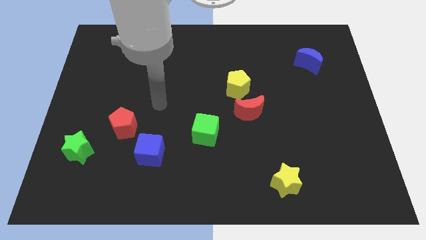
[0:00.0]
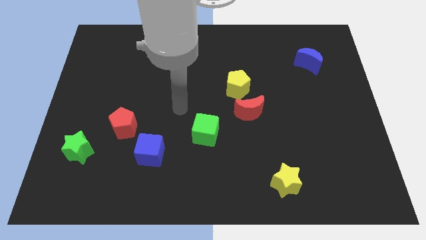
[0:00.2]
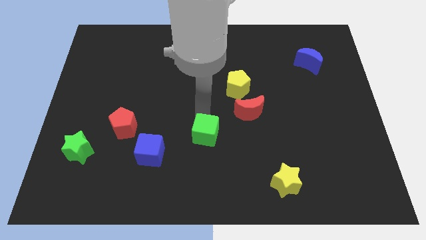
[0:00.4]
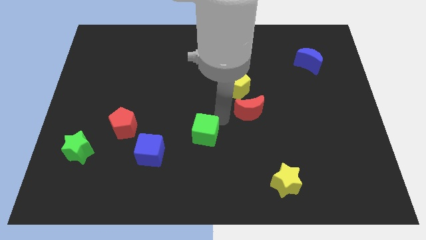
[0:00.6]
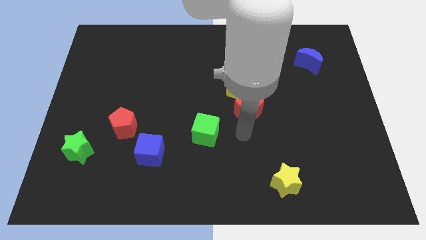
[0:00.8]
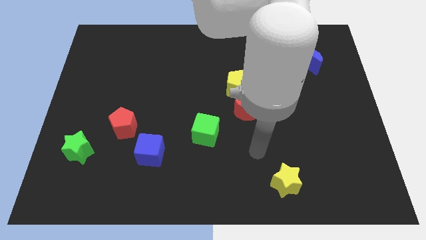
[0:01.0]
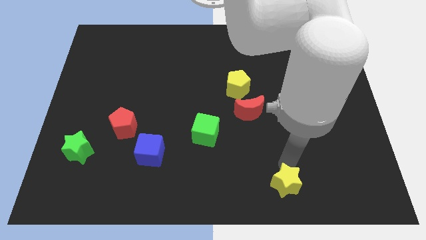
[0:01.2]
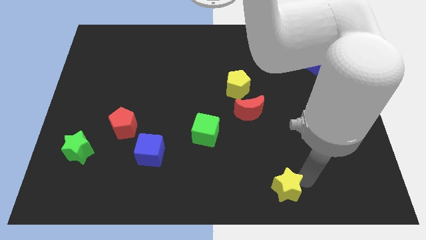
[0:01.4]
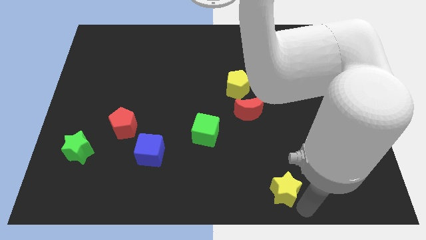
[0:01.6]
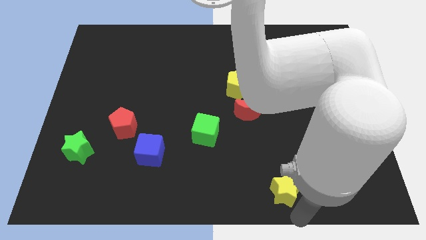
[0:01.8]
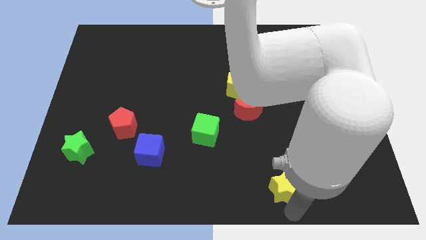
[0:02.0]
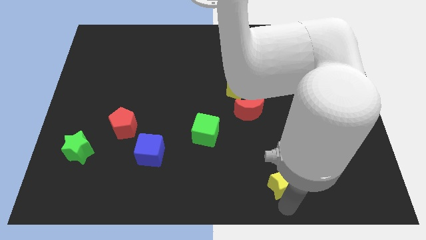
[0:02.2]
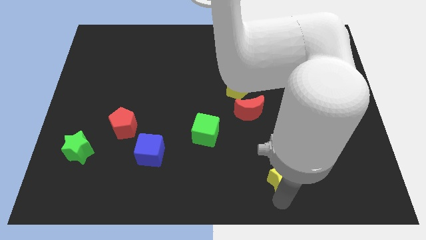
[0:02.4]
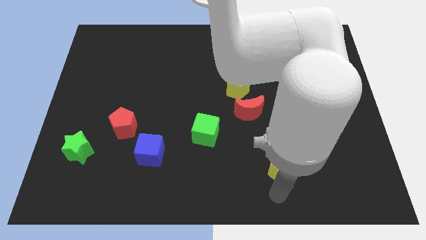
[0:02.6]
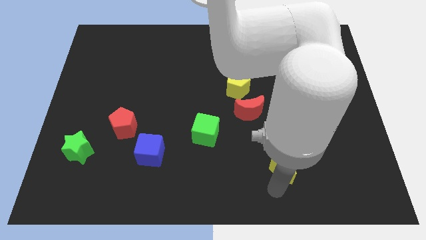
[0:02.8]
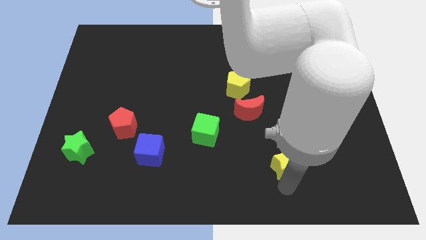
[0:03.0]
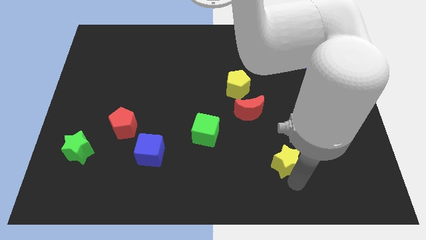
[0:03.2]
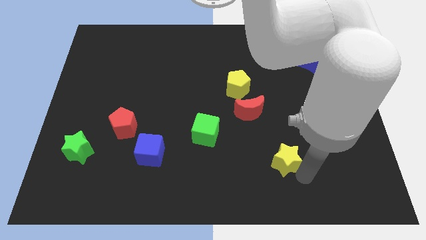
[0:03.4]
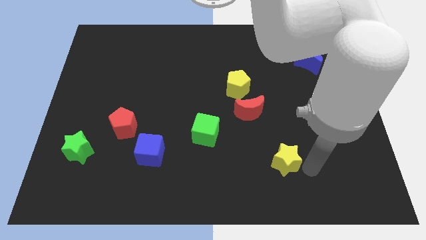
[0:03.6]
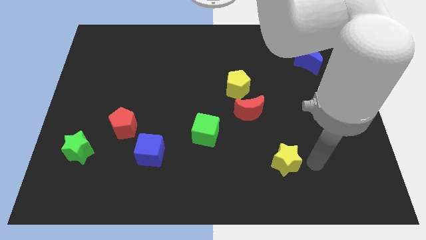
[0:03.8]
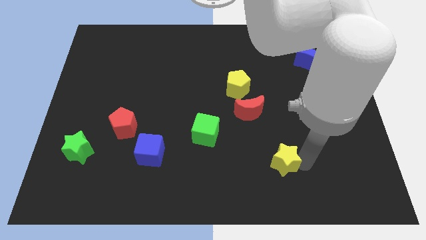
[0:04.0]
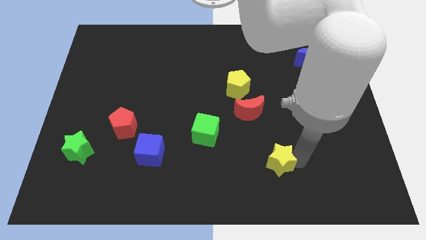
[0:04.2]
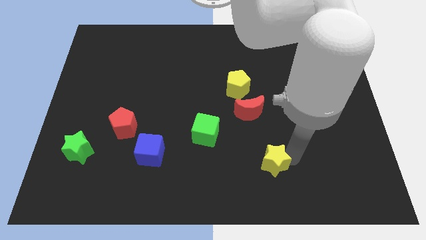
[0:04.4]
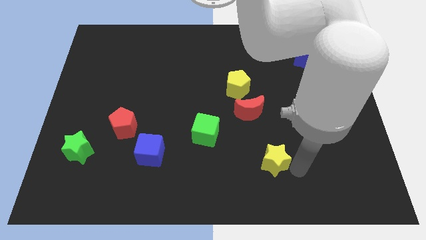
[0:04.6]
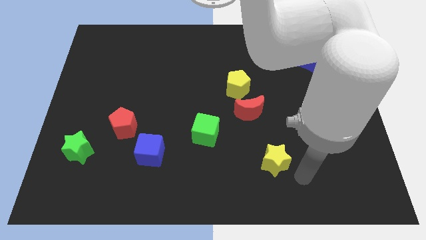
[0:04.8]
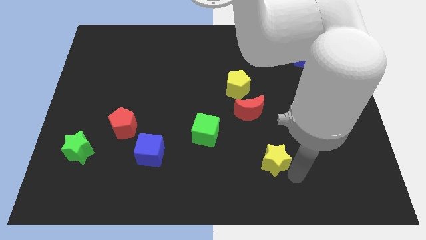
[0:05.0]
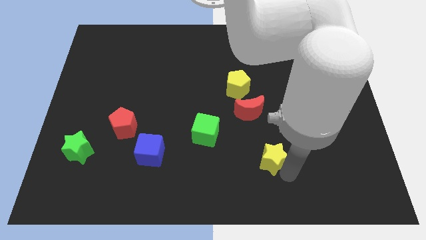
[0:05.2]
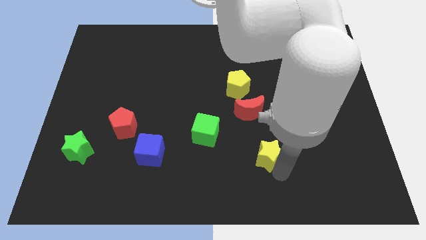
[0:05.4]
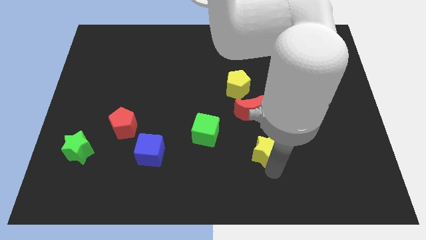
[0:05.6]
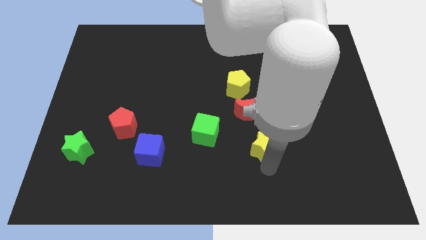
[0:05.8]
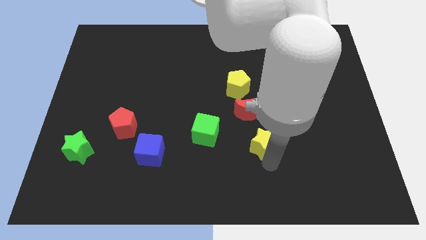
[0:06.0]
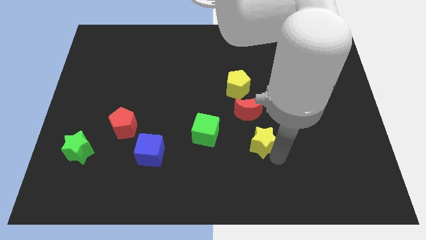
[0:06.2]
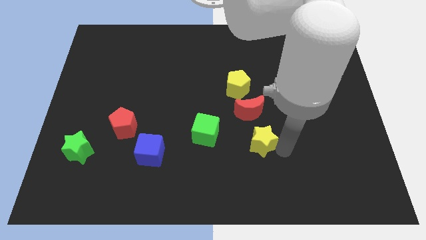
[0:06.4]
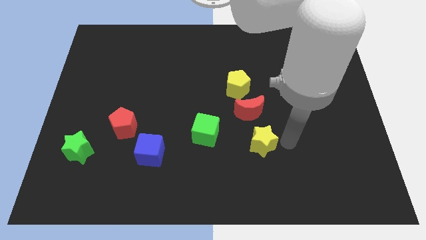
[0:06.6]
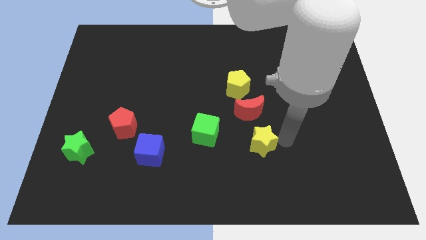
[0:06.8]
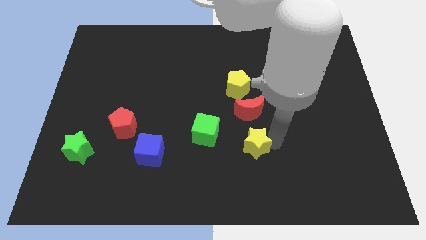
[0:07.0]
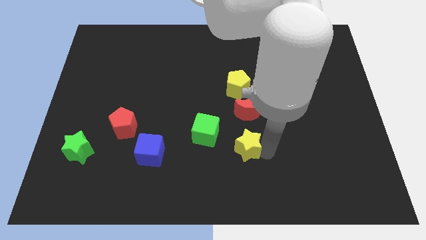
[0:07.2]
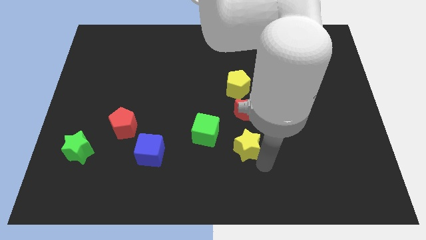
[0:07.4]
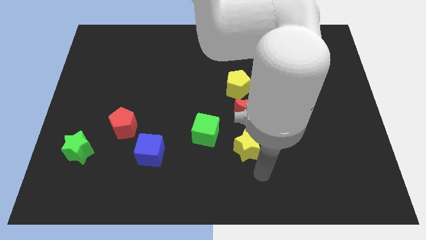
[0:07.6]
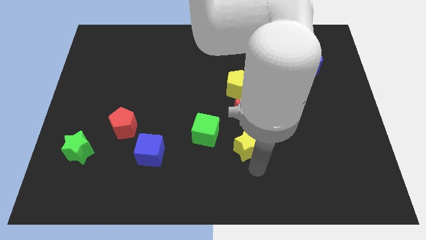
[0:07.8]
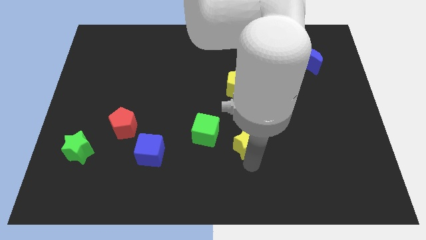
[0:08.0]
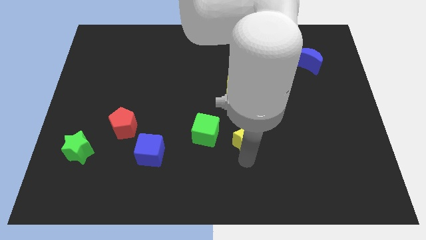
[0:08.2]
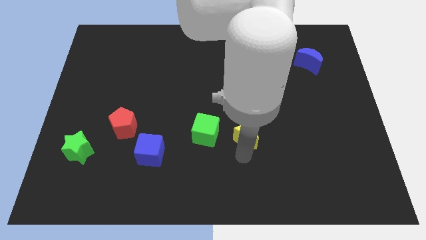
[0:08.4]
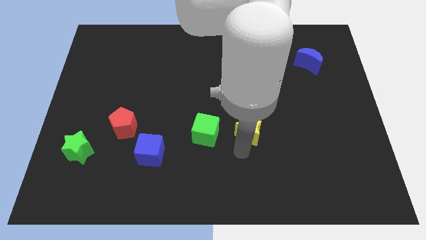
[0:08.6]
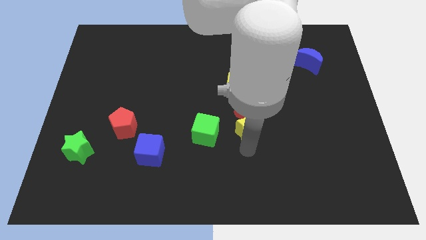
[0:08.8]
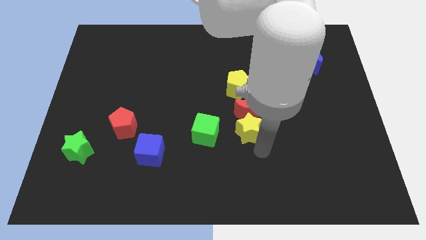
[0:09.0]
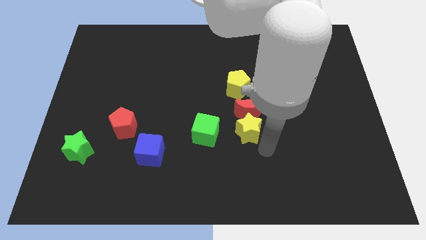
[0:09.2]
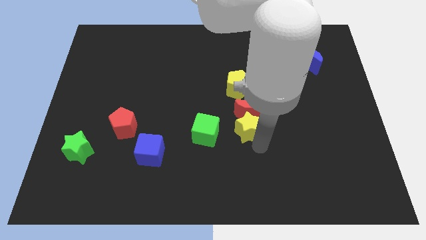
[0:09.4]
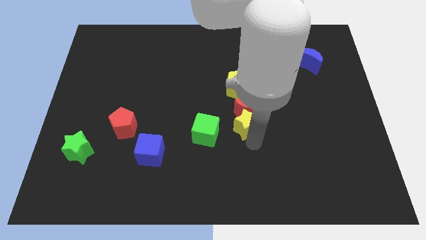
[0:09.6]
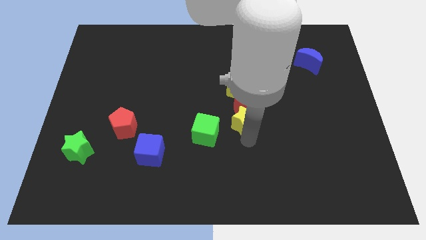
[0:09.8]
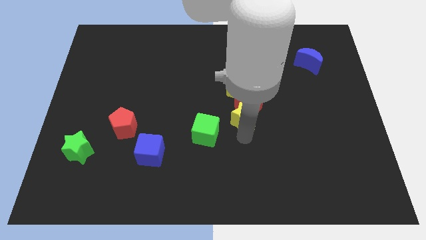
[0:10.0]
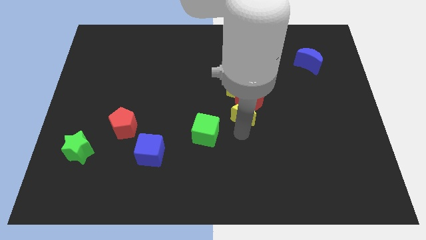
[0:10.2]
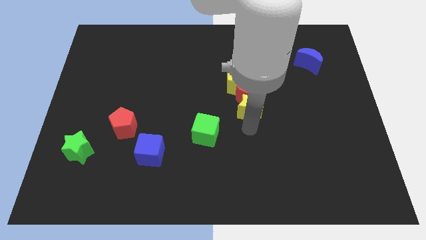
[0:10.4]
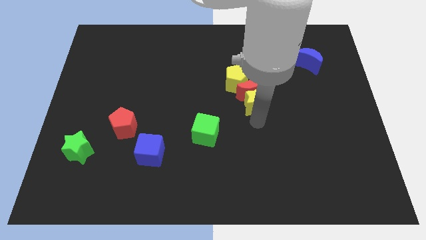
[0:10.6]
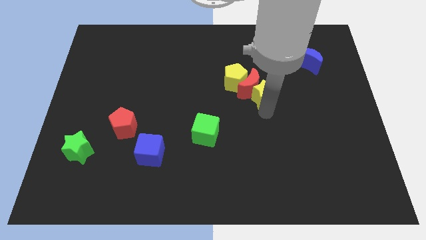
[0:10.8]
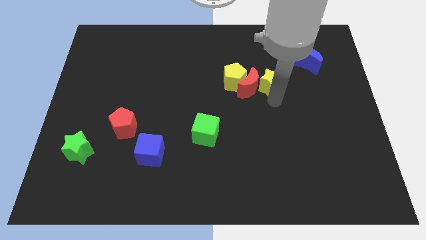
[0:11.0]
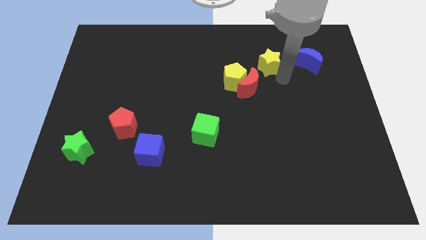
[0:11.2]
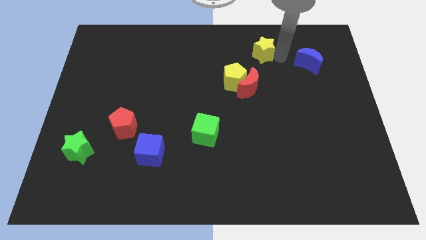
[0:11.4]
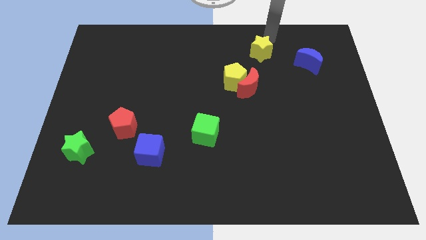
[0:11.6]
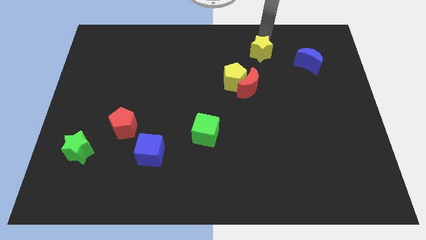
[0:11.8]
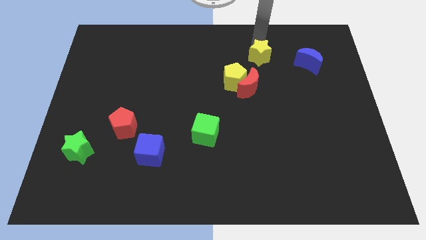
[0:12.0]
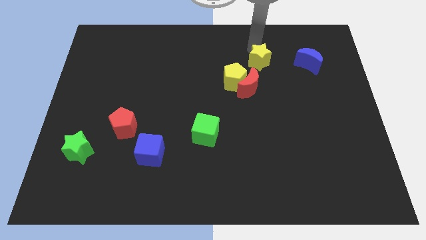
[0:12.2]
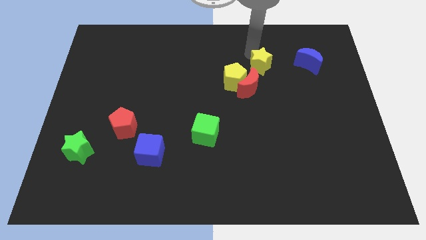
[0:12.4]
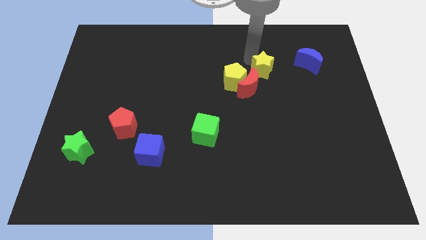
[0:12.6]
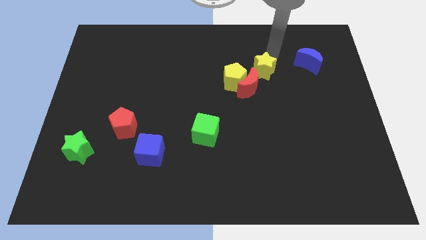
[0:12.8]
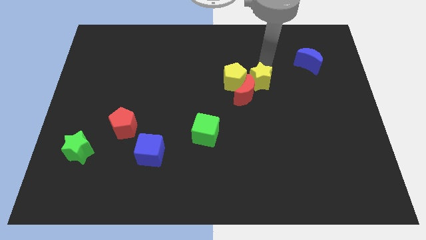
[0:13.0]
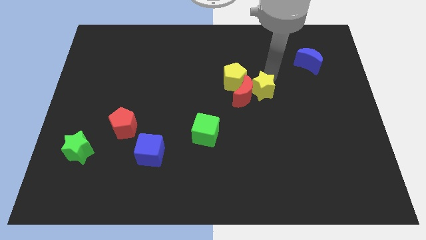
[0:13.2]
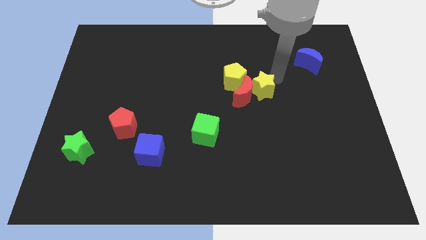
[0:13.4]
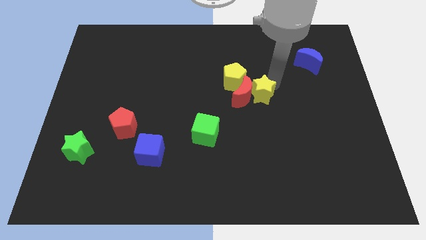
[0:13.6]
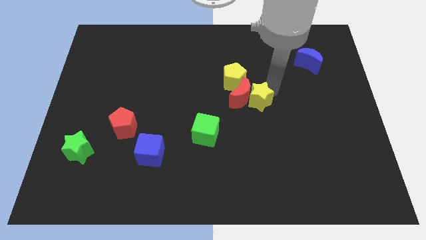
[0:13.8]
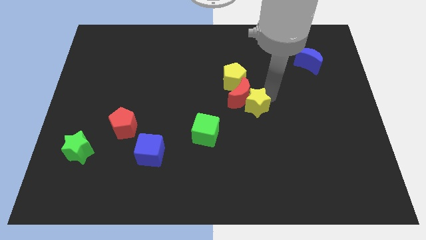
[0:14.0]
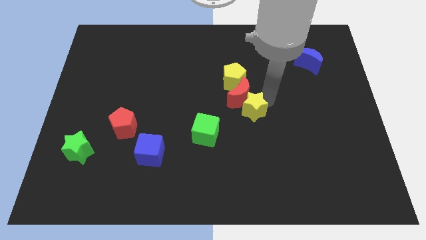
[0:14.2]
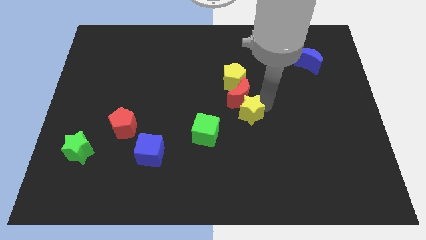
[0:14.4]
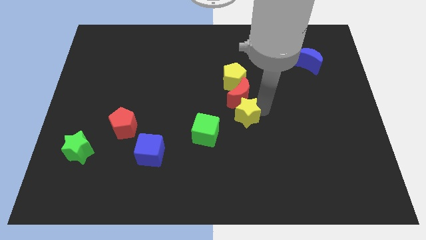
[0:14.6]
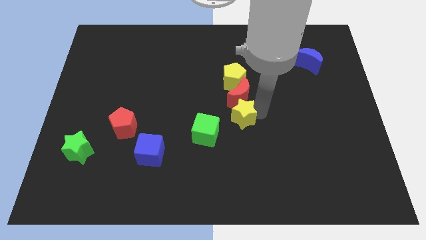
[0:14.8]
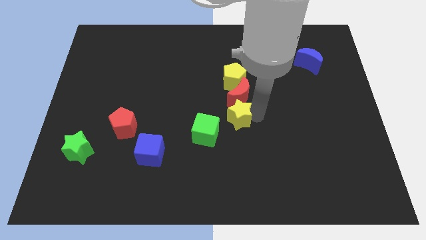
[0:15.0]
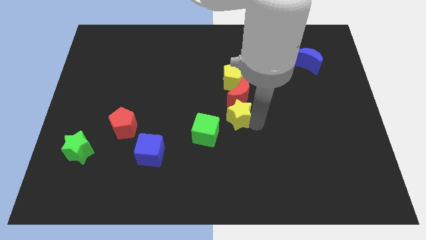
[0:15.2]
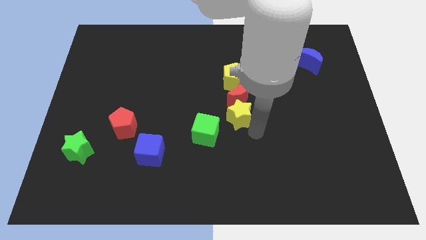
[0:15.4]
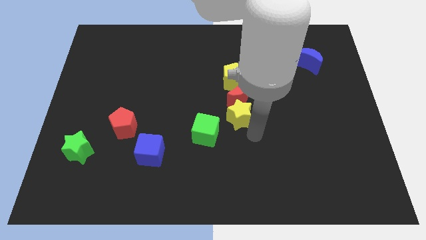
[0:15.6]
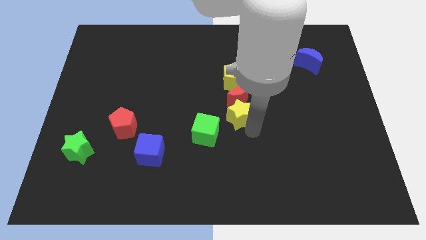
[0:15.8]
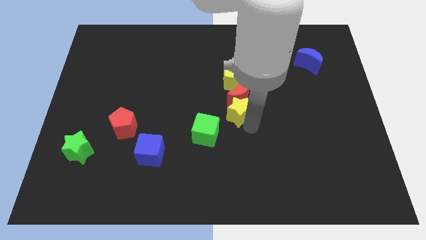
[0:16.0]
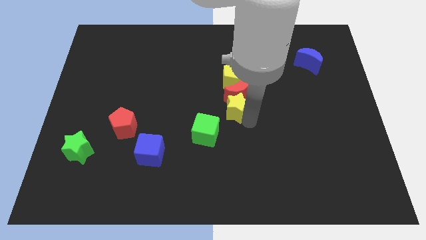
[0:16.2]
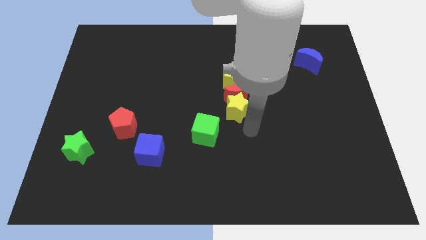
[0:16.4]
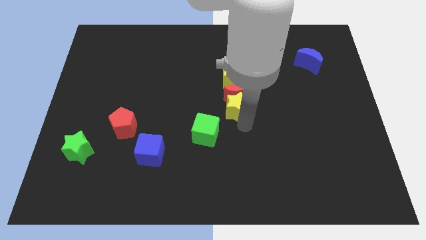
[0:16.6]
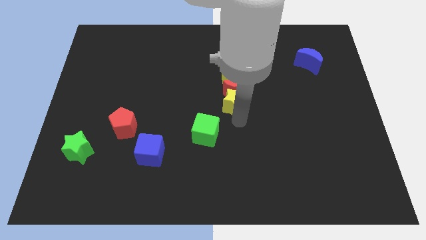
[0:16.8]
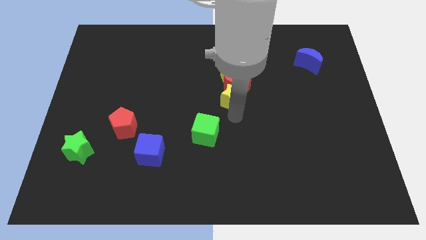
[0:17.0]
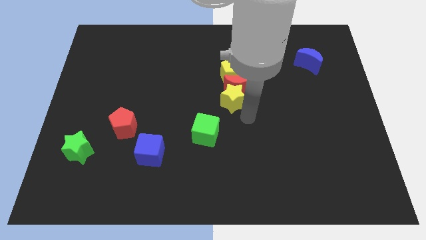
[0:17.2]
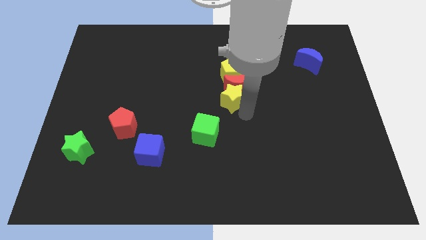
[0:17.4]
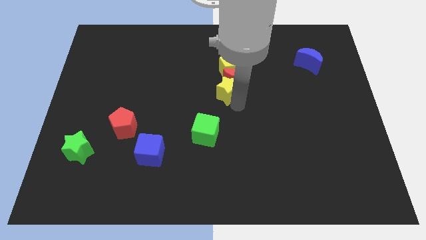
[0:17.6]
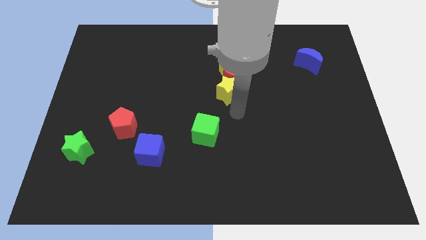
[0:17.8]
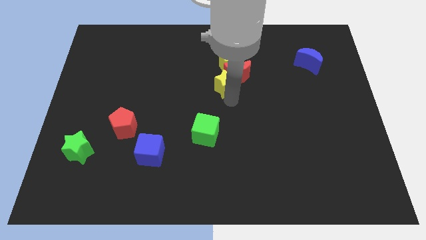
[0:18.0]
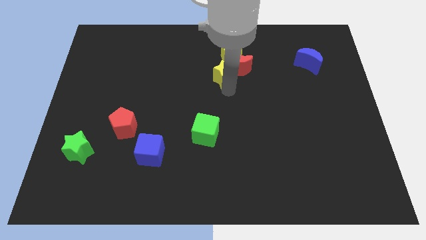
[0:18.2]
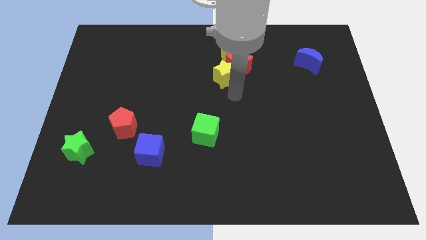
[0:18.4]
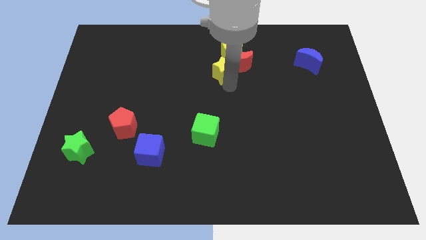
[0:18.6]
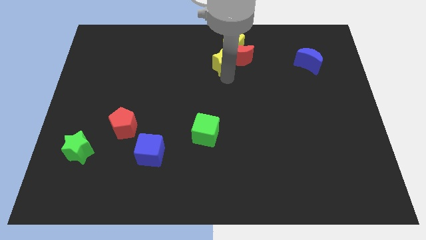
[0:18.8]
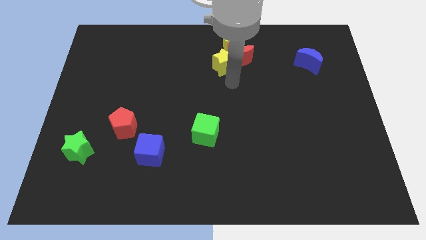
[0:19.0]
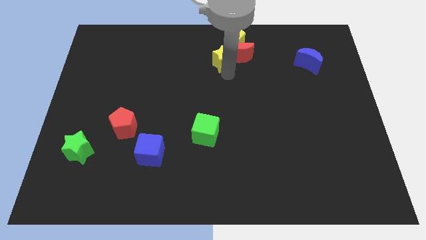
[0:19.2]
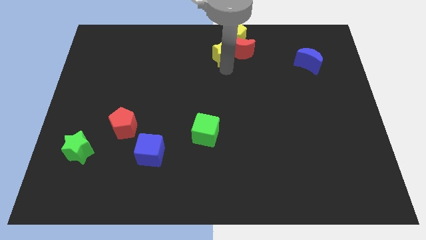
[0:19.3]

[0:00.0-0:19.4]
slide the yellow star to the top
